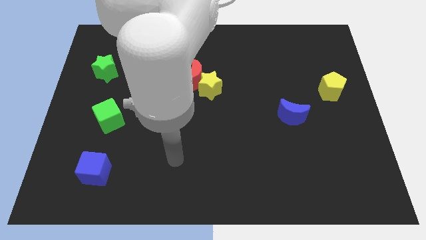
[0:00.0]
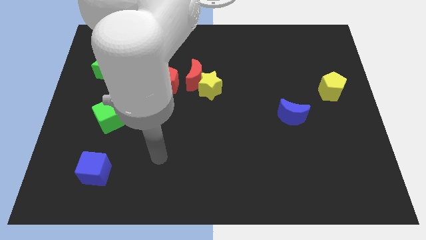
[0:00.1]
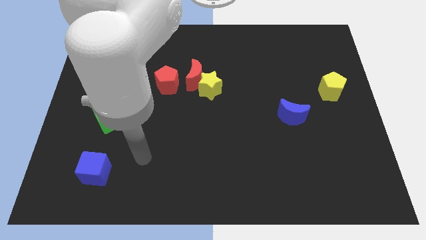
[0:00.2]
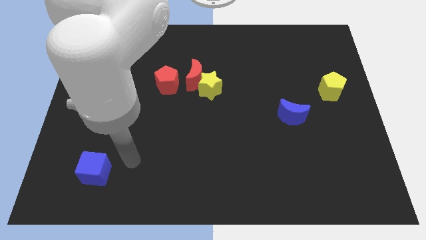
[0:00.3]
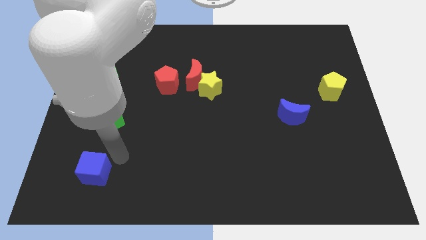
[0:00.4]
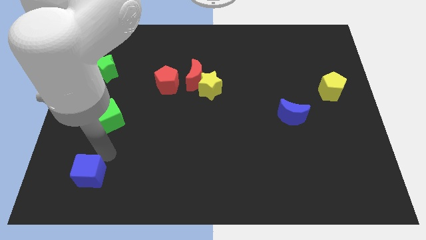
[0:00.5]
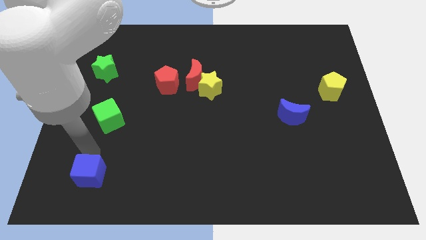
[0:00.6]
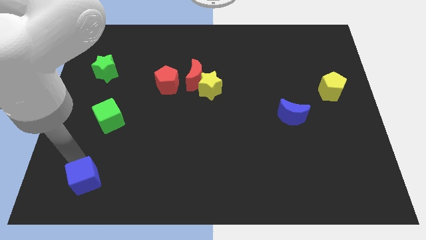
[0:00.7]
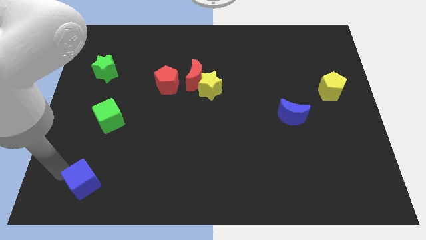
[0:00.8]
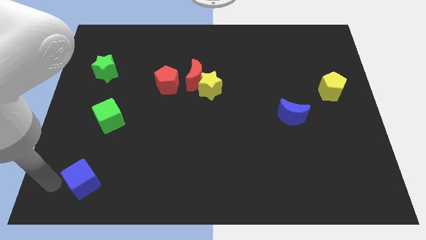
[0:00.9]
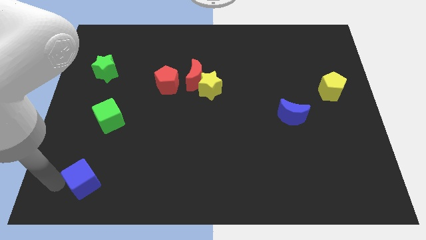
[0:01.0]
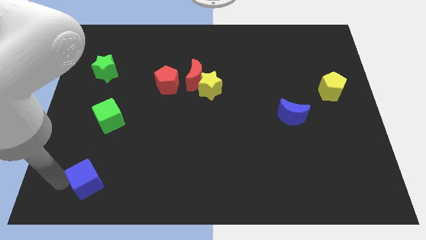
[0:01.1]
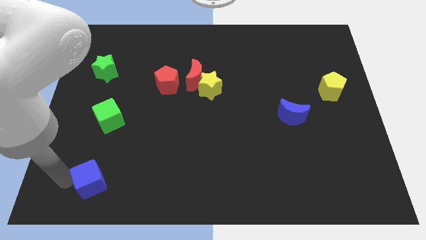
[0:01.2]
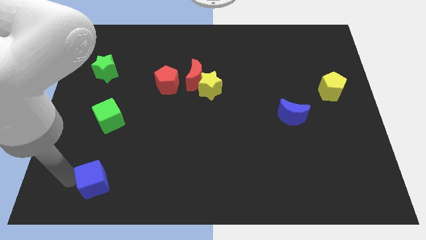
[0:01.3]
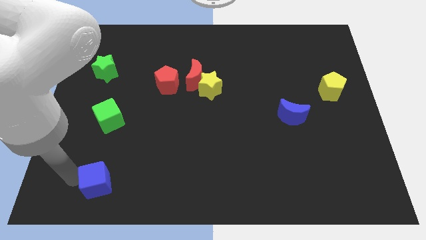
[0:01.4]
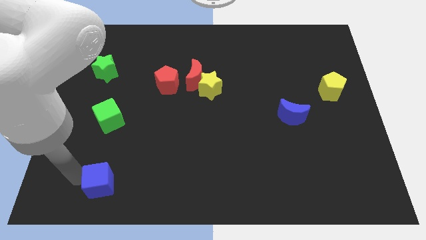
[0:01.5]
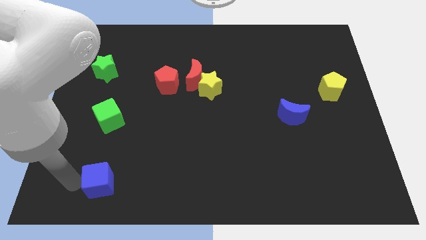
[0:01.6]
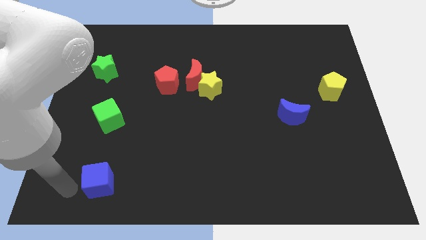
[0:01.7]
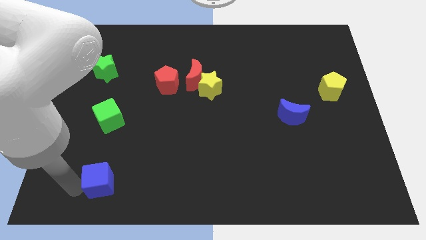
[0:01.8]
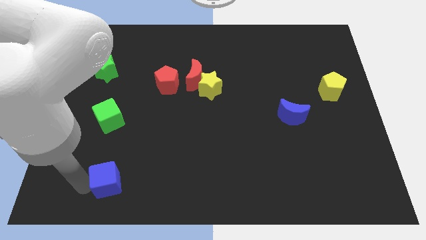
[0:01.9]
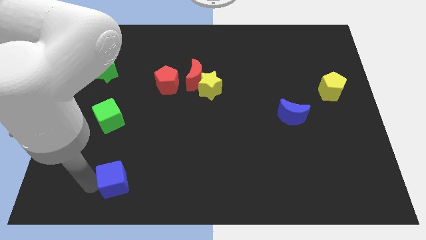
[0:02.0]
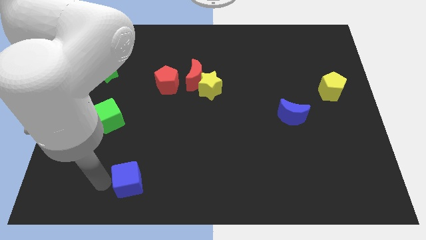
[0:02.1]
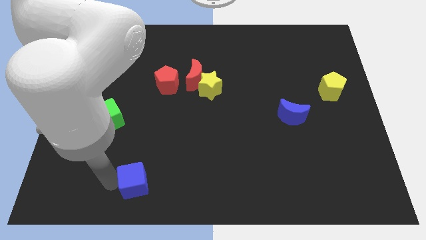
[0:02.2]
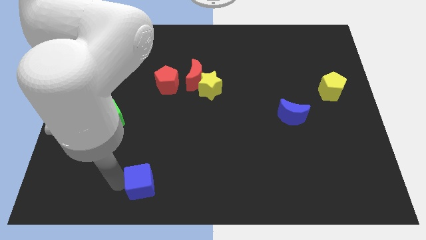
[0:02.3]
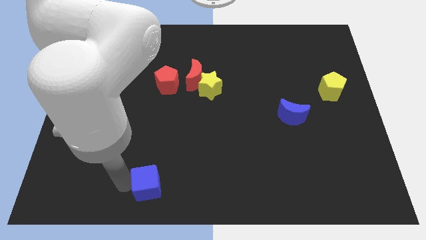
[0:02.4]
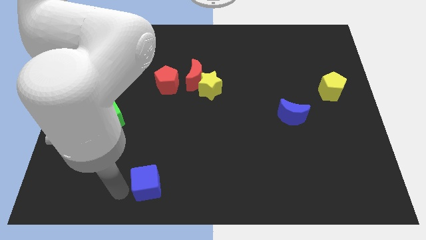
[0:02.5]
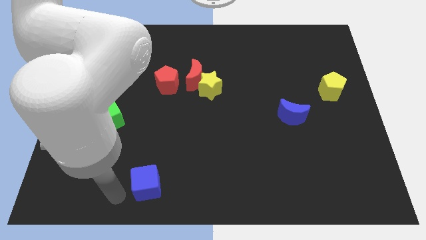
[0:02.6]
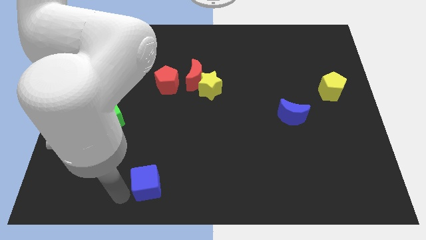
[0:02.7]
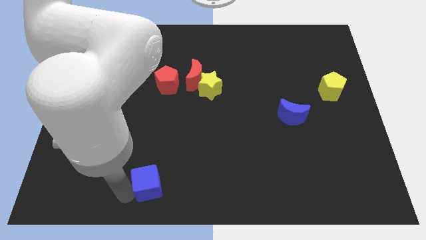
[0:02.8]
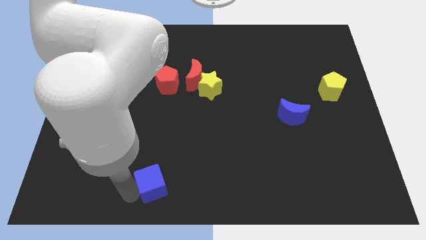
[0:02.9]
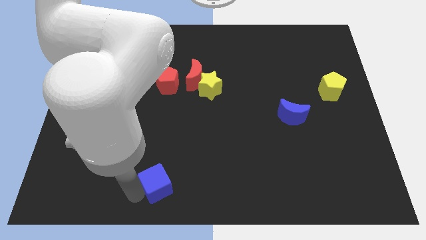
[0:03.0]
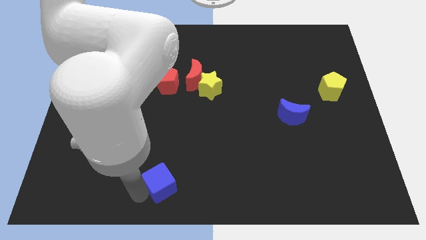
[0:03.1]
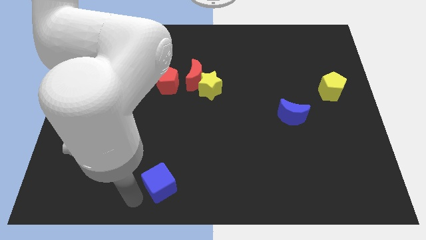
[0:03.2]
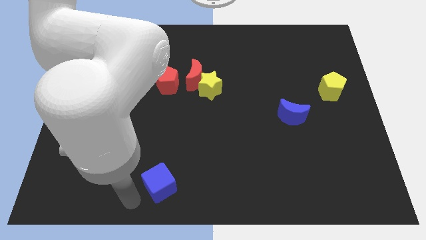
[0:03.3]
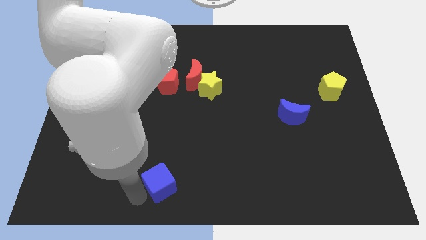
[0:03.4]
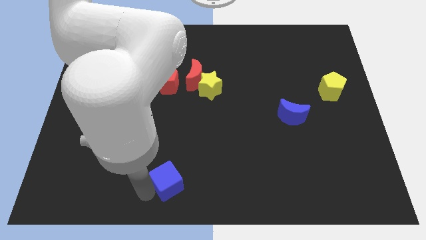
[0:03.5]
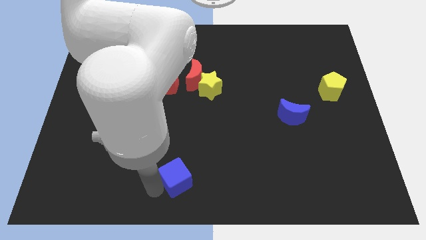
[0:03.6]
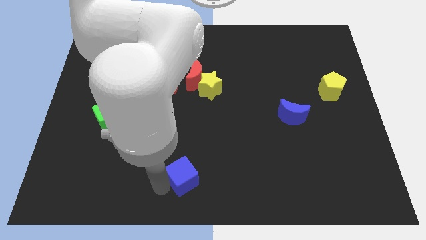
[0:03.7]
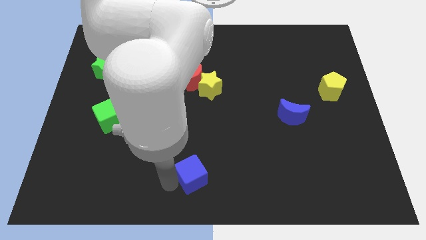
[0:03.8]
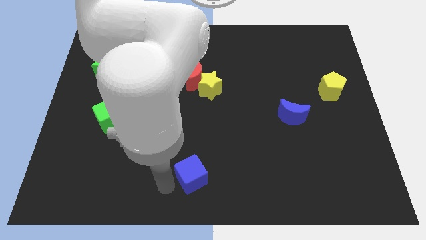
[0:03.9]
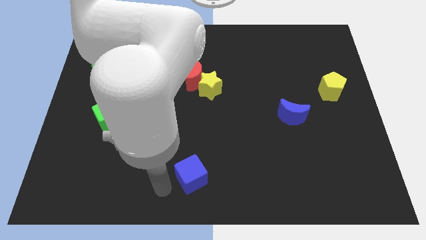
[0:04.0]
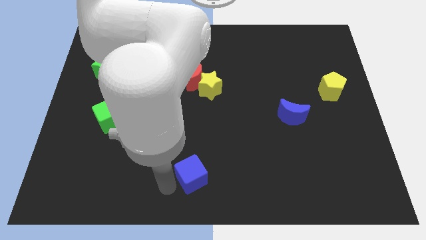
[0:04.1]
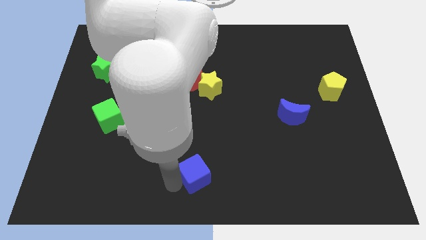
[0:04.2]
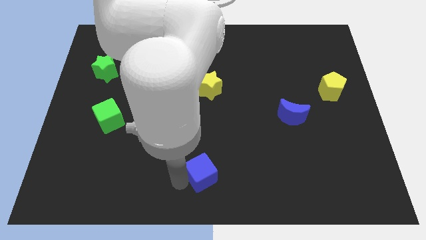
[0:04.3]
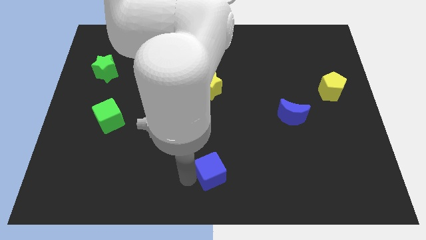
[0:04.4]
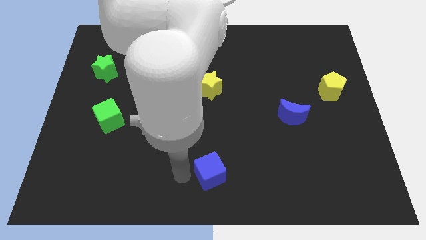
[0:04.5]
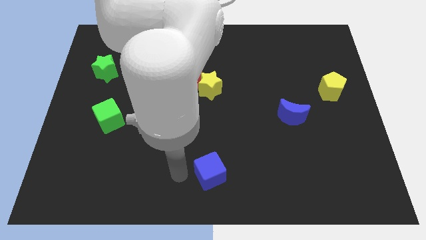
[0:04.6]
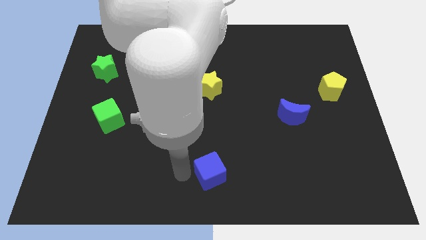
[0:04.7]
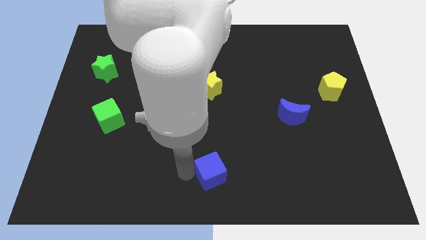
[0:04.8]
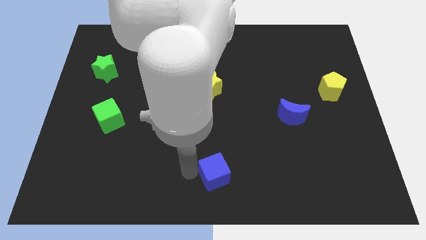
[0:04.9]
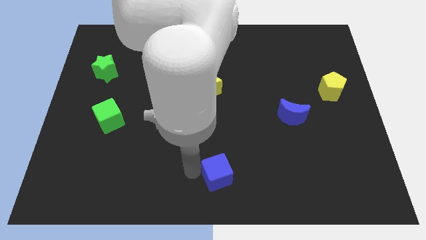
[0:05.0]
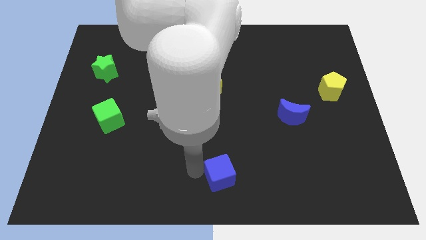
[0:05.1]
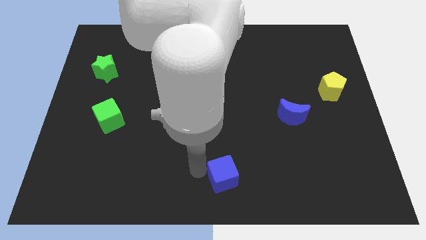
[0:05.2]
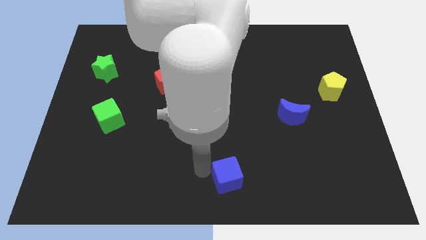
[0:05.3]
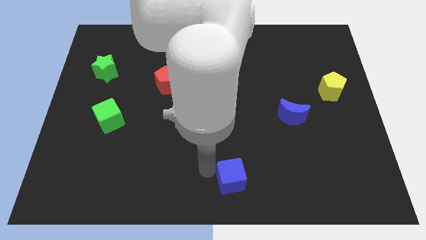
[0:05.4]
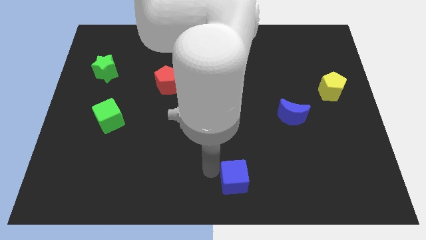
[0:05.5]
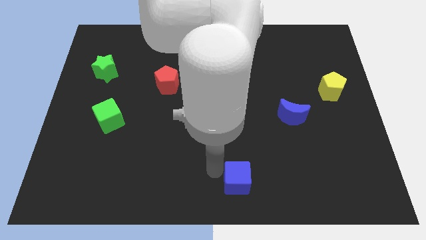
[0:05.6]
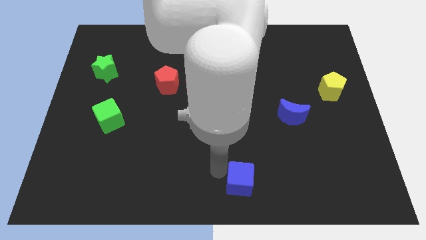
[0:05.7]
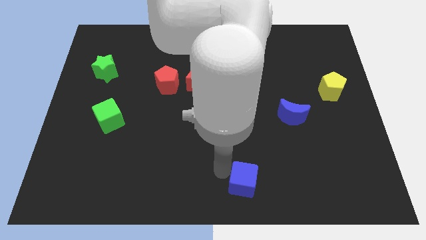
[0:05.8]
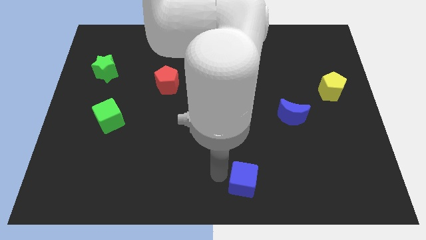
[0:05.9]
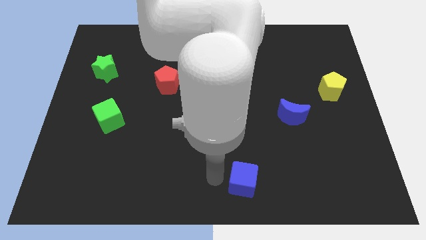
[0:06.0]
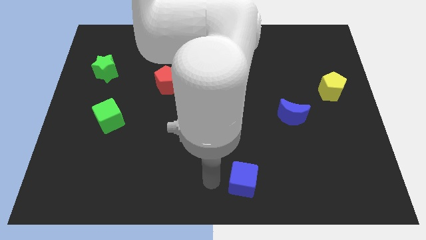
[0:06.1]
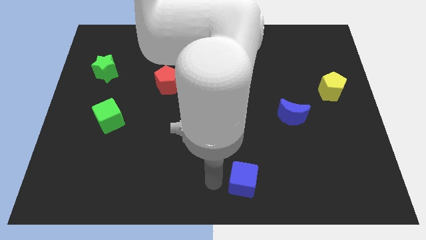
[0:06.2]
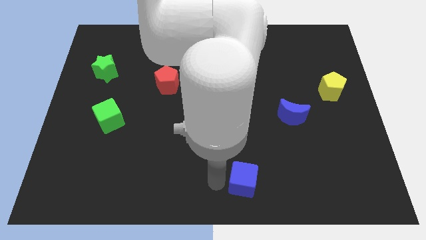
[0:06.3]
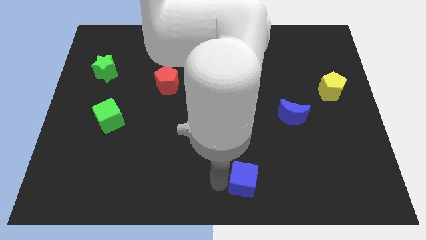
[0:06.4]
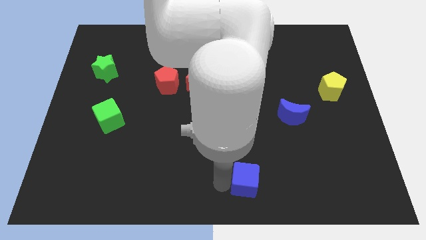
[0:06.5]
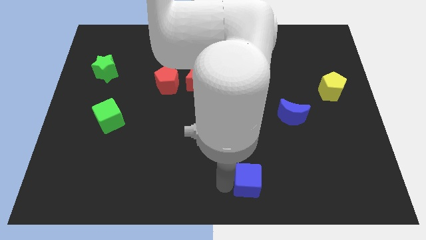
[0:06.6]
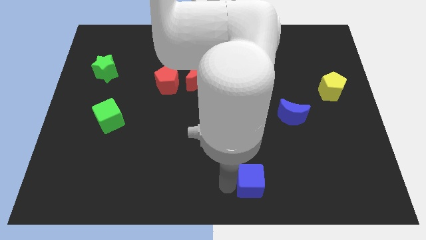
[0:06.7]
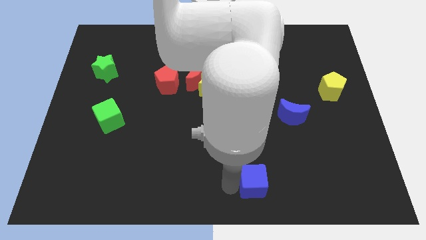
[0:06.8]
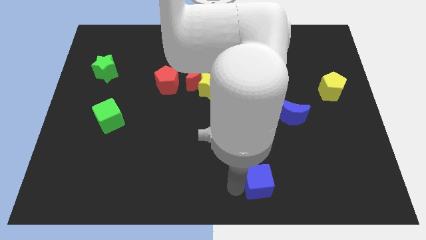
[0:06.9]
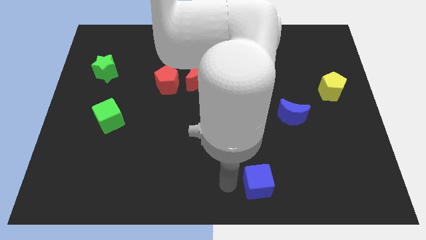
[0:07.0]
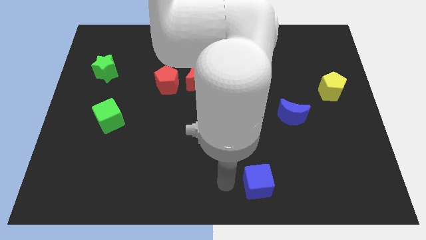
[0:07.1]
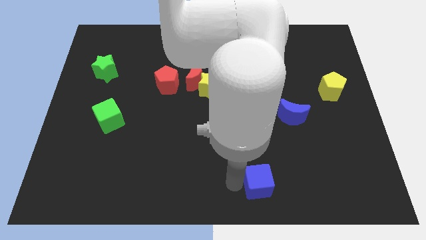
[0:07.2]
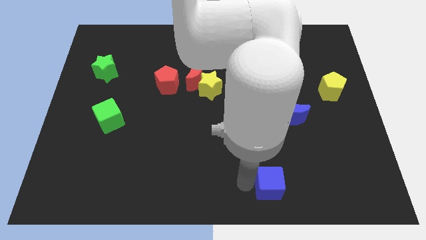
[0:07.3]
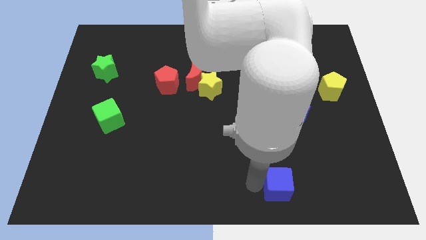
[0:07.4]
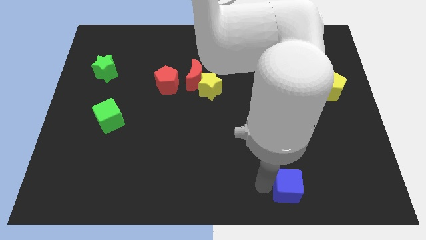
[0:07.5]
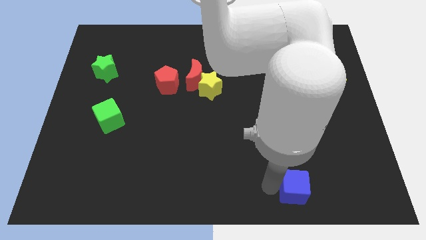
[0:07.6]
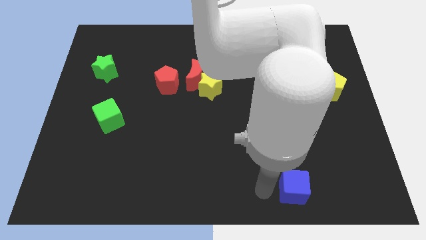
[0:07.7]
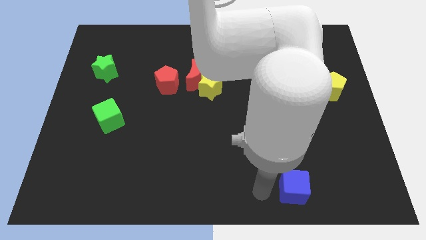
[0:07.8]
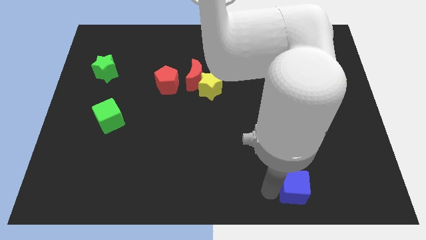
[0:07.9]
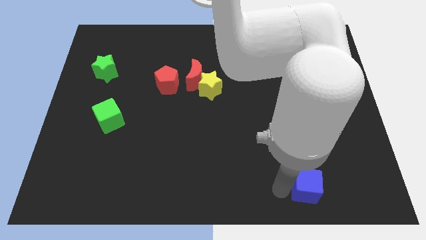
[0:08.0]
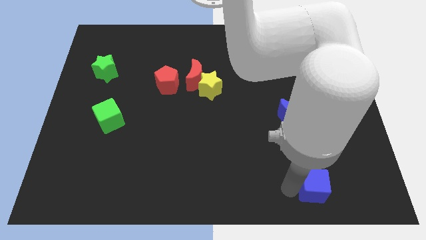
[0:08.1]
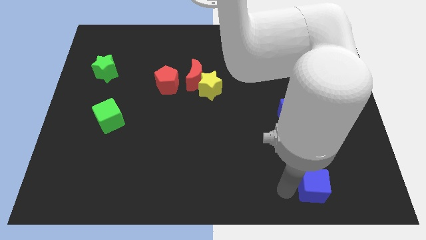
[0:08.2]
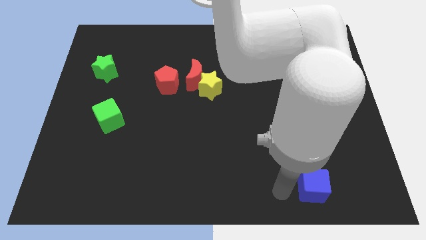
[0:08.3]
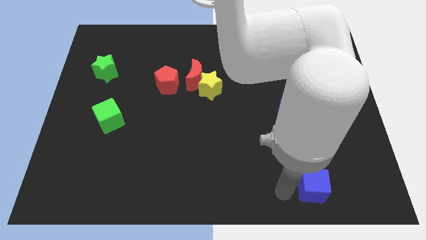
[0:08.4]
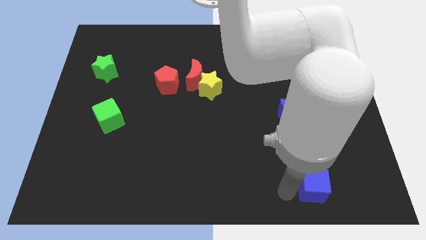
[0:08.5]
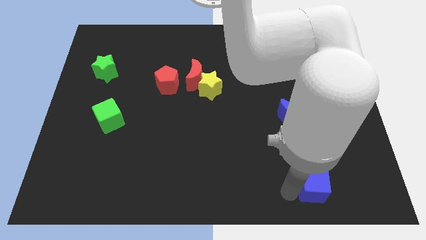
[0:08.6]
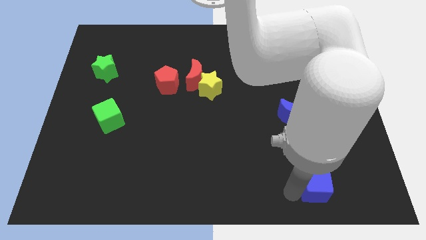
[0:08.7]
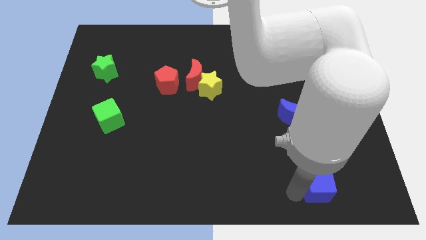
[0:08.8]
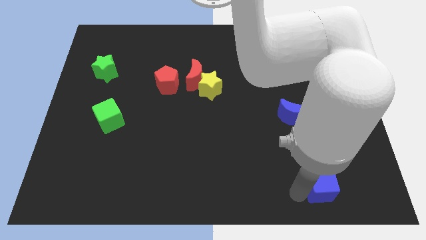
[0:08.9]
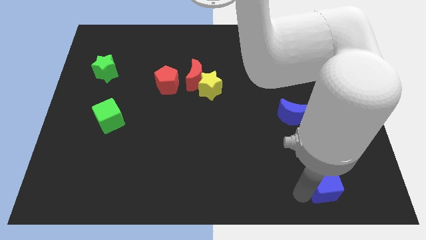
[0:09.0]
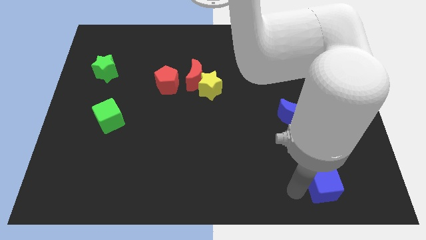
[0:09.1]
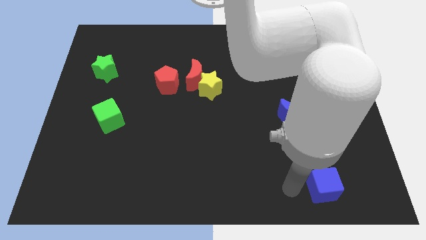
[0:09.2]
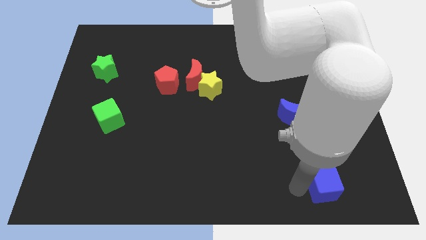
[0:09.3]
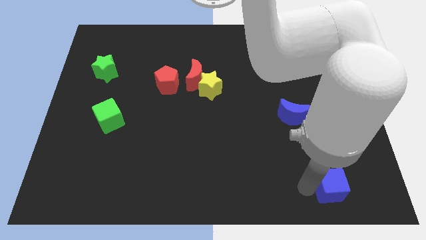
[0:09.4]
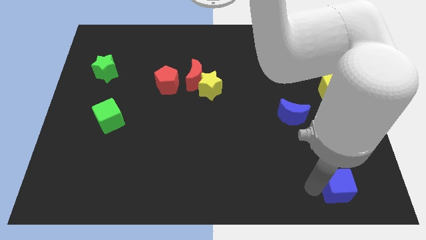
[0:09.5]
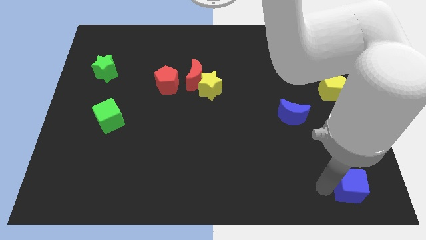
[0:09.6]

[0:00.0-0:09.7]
slide the blue cube to the bottom right corner
